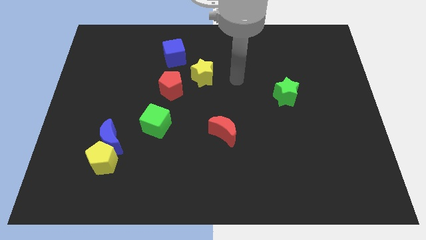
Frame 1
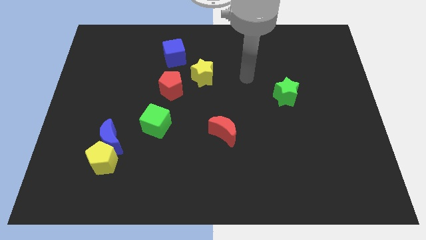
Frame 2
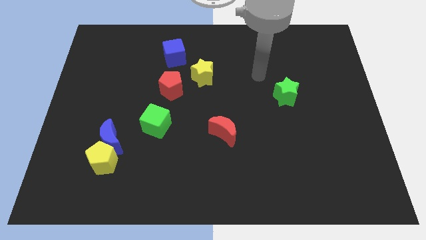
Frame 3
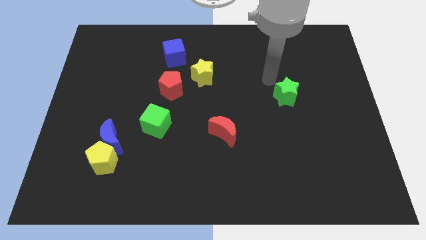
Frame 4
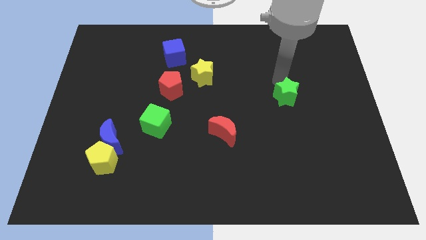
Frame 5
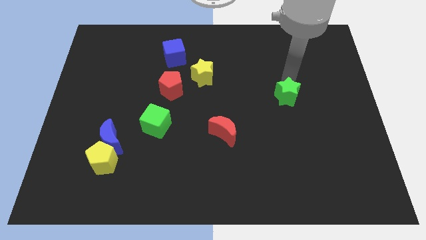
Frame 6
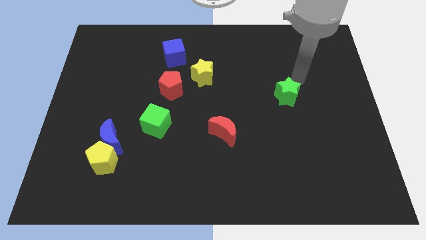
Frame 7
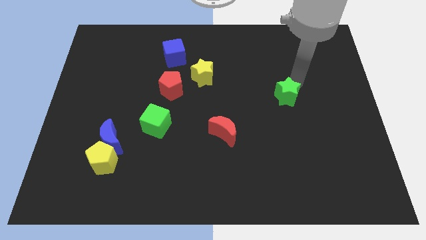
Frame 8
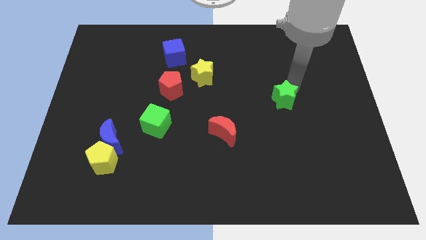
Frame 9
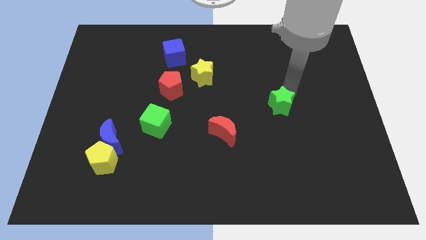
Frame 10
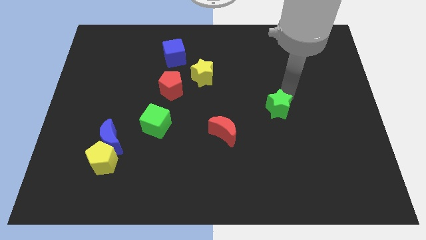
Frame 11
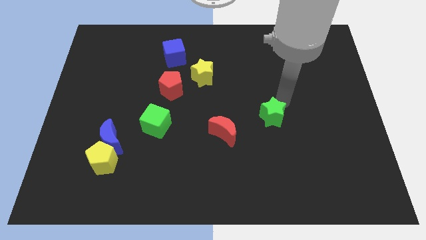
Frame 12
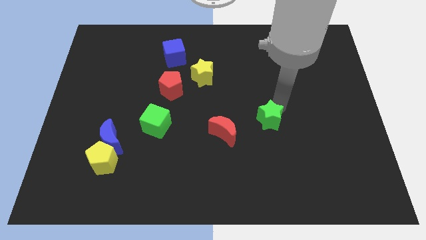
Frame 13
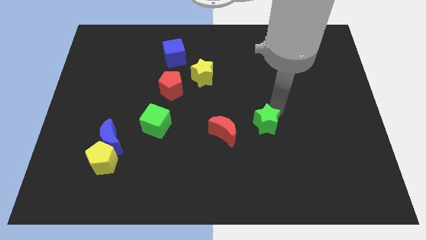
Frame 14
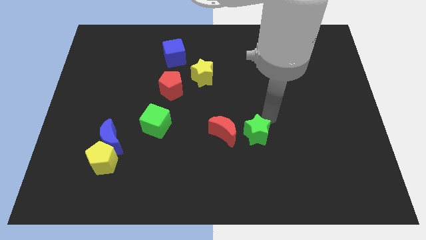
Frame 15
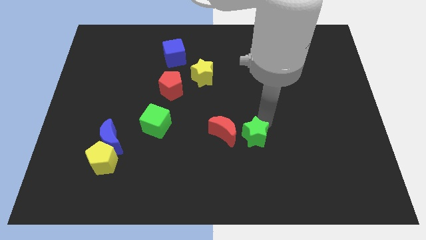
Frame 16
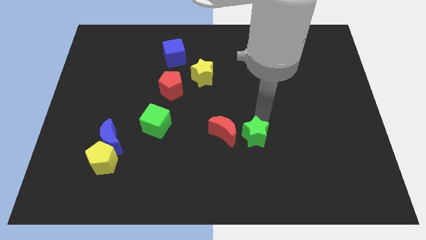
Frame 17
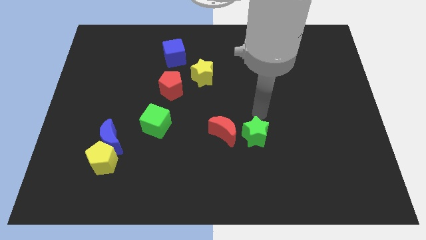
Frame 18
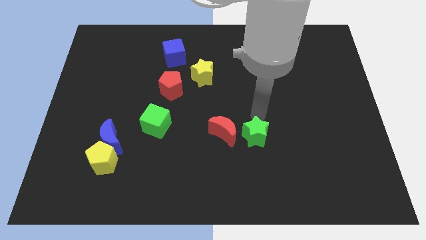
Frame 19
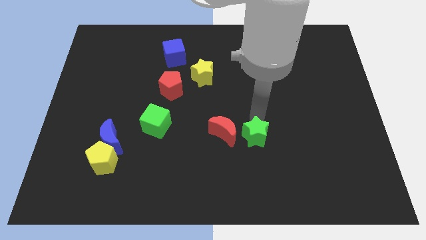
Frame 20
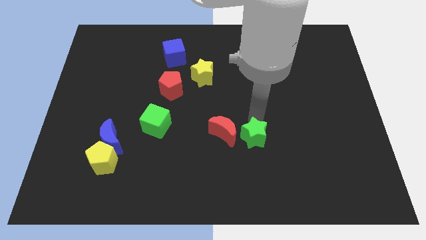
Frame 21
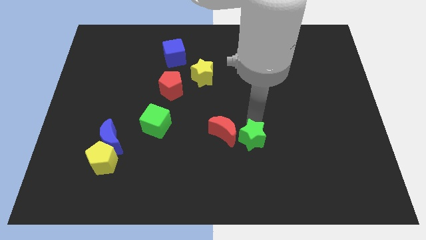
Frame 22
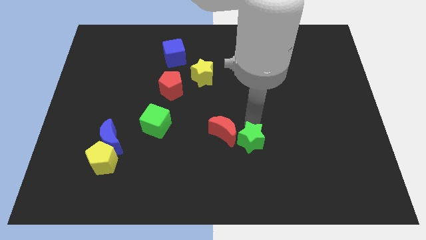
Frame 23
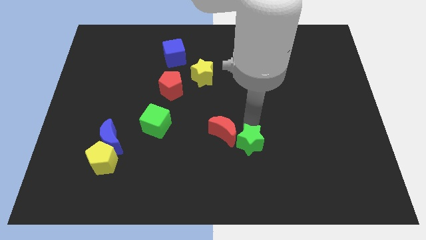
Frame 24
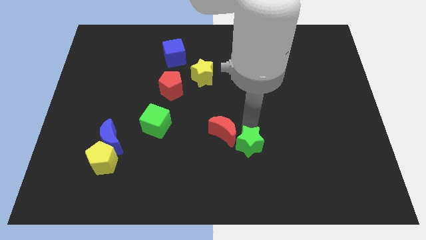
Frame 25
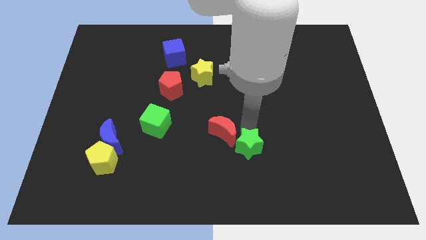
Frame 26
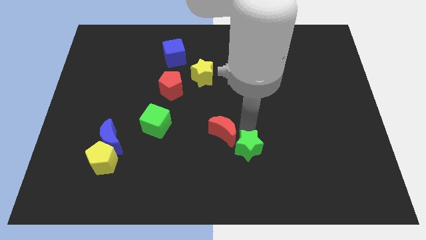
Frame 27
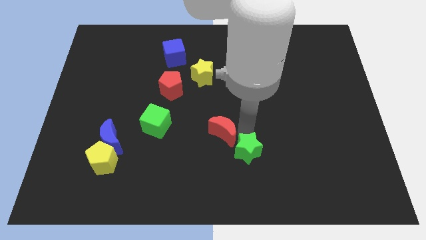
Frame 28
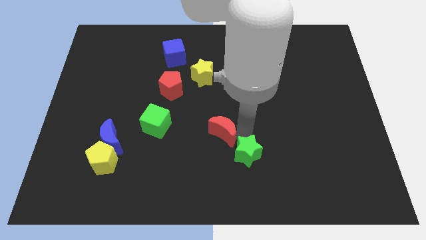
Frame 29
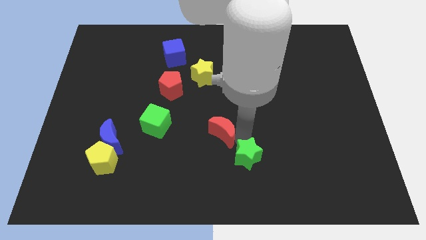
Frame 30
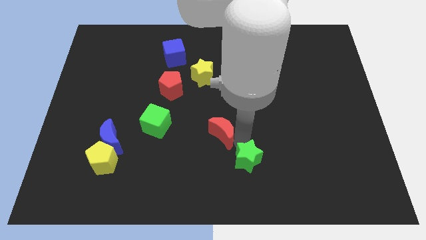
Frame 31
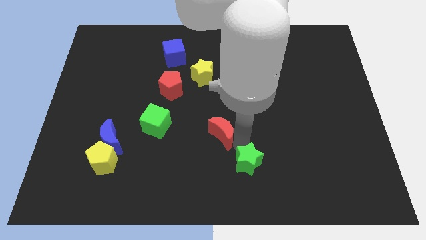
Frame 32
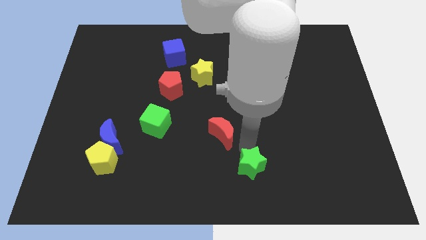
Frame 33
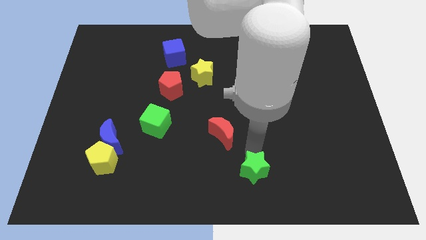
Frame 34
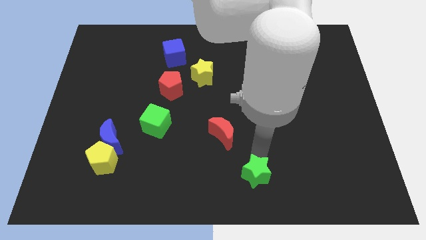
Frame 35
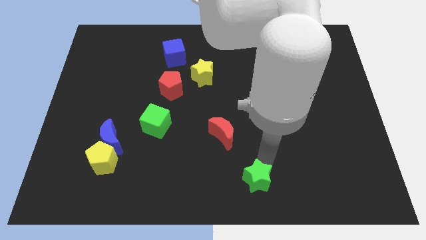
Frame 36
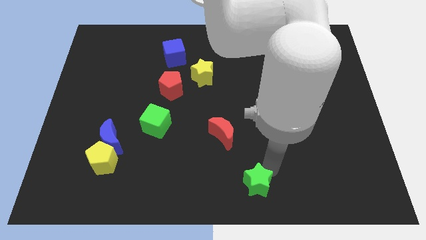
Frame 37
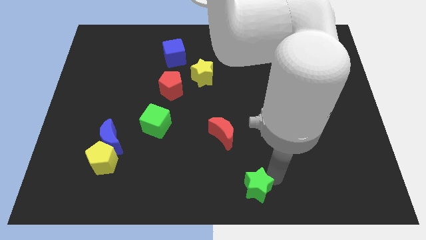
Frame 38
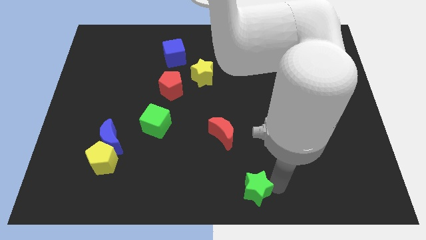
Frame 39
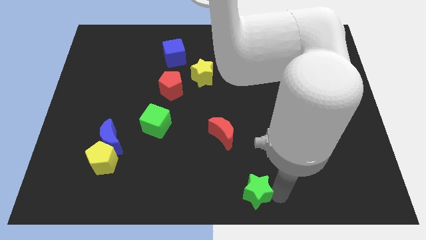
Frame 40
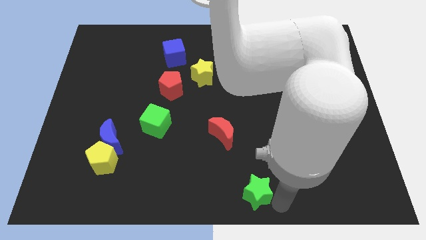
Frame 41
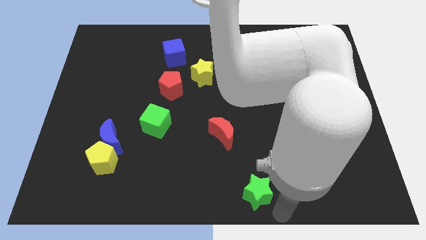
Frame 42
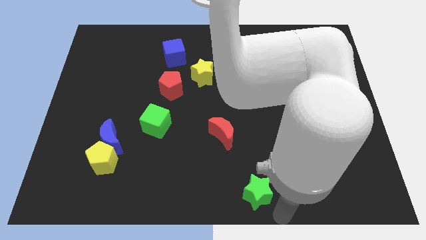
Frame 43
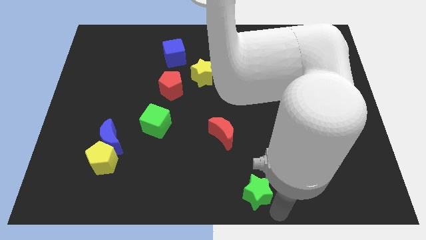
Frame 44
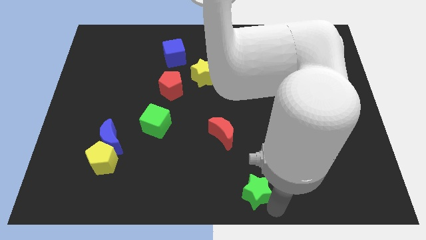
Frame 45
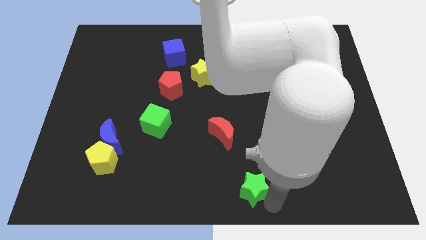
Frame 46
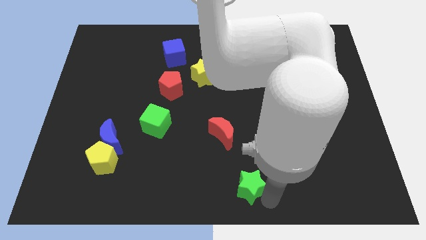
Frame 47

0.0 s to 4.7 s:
slide the green star diagonally down and left

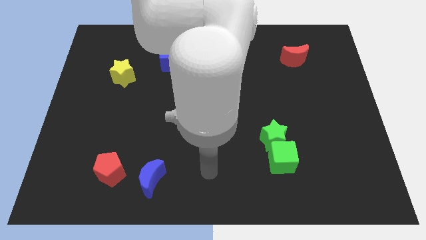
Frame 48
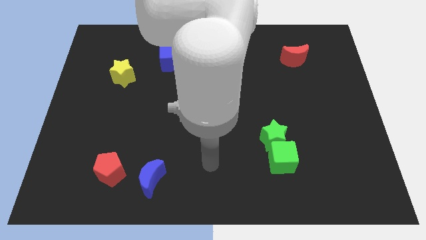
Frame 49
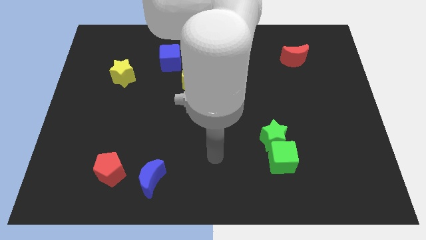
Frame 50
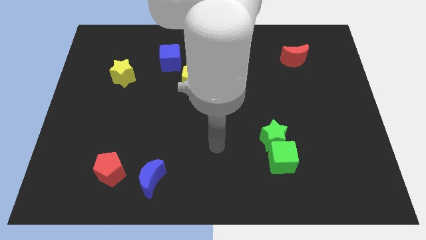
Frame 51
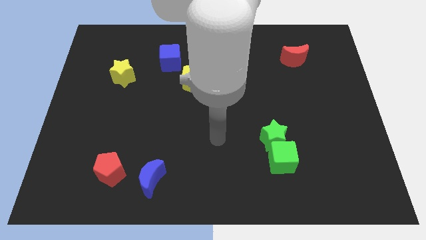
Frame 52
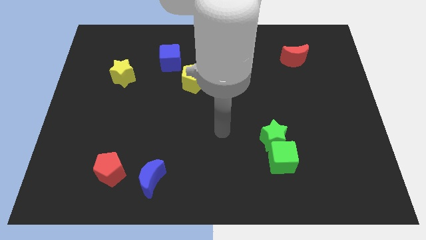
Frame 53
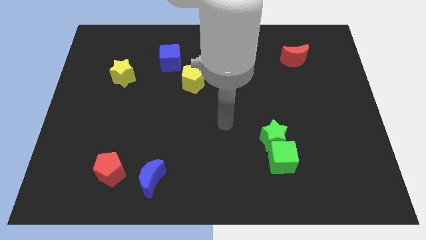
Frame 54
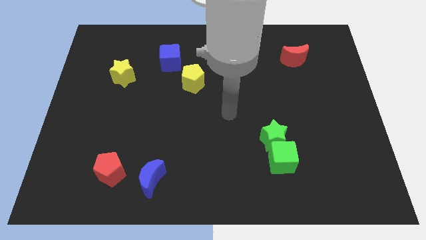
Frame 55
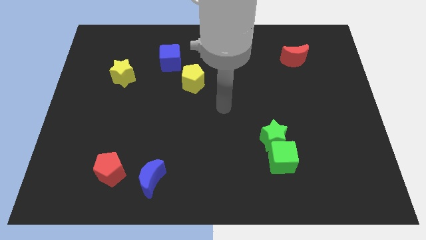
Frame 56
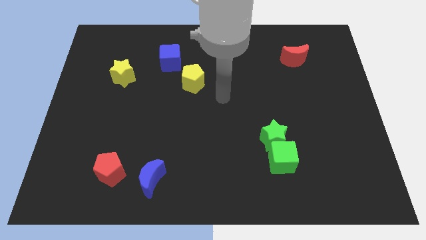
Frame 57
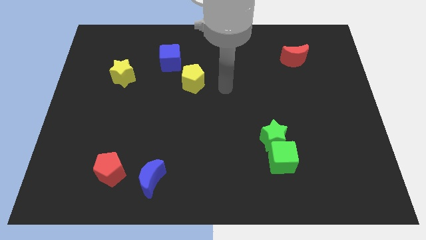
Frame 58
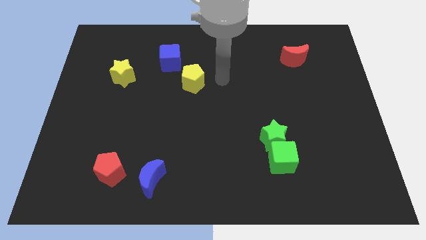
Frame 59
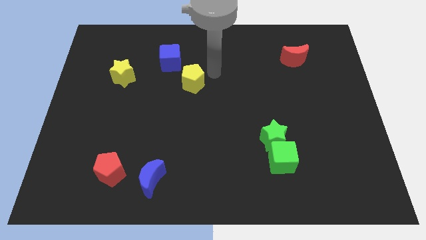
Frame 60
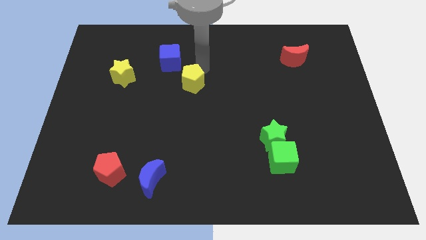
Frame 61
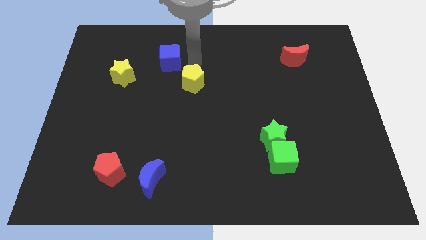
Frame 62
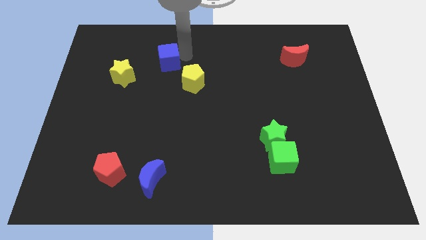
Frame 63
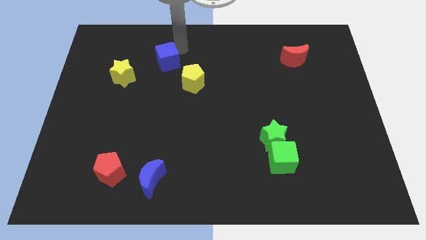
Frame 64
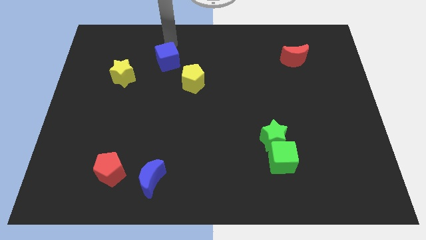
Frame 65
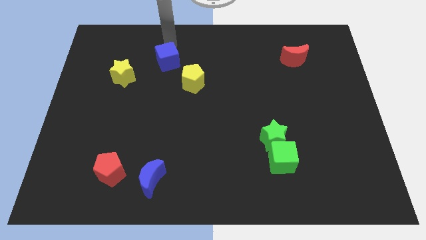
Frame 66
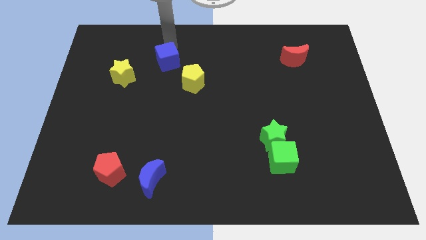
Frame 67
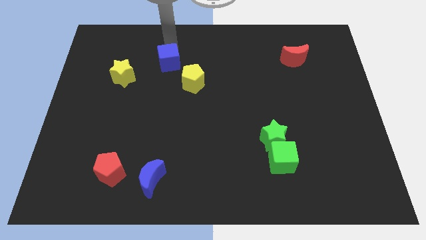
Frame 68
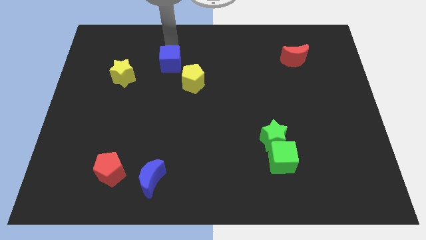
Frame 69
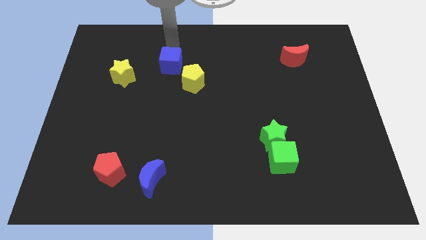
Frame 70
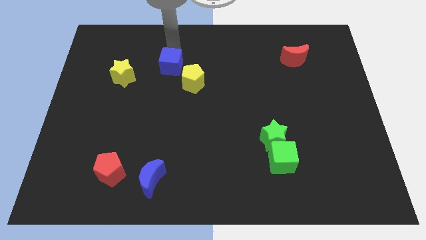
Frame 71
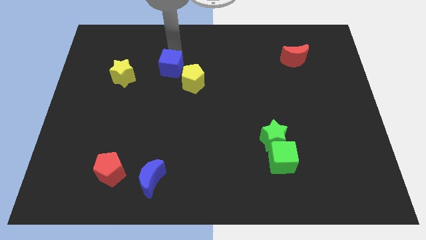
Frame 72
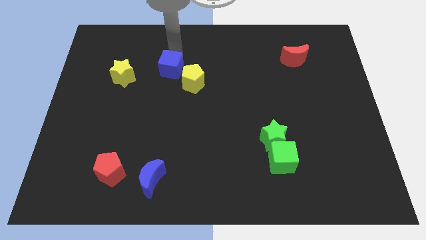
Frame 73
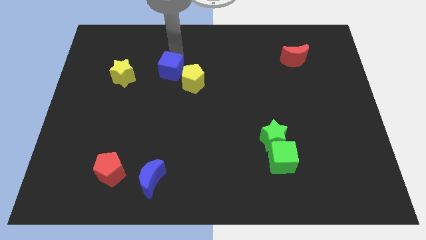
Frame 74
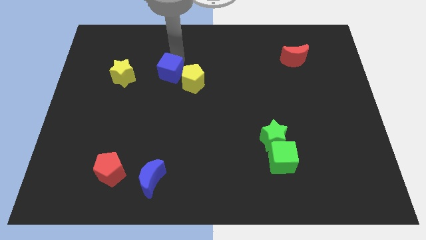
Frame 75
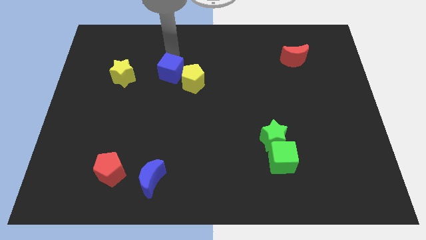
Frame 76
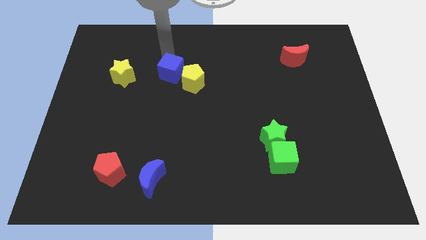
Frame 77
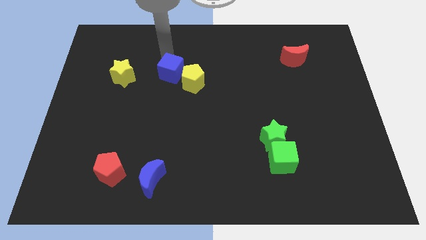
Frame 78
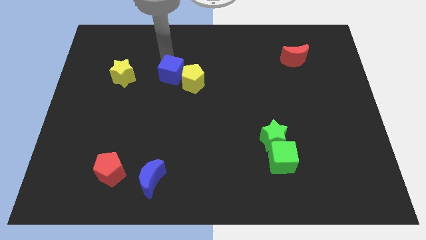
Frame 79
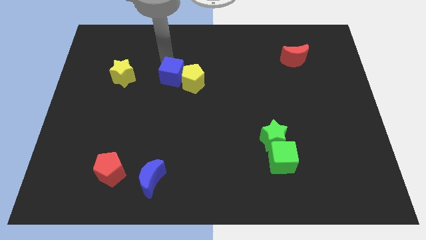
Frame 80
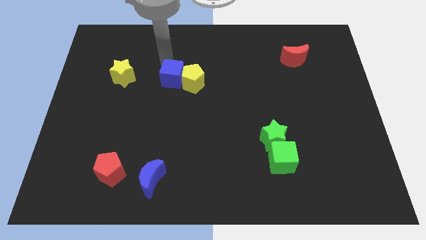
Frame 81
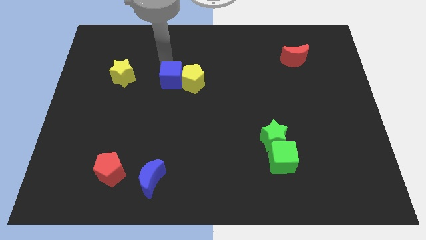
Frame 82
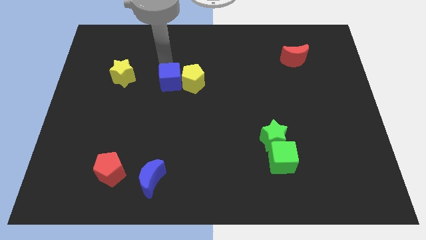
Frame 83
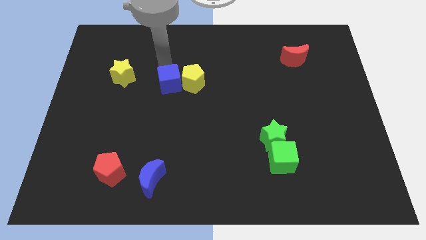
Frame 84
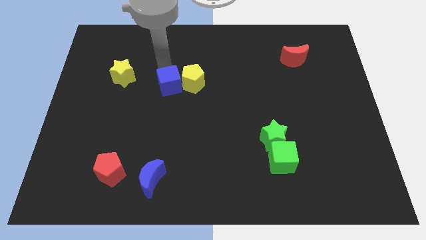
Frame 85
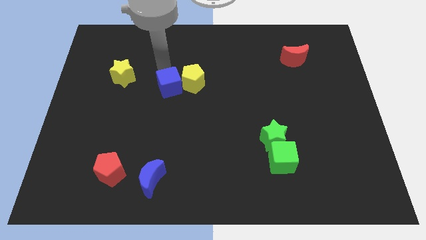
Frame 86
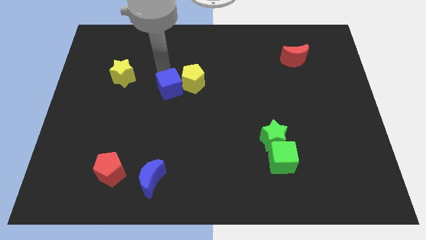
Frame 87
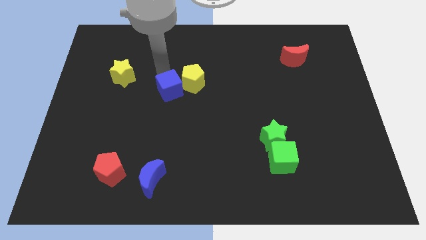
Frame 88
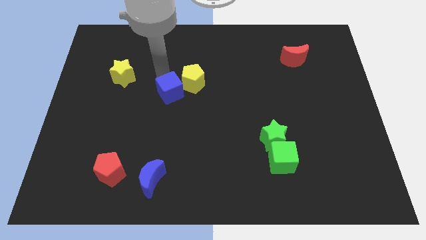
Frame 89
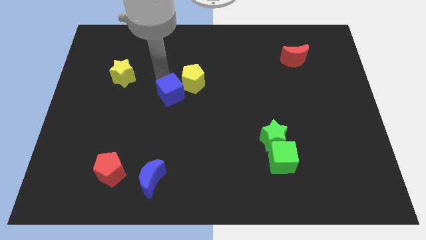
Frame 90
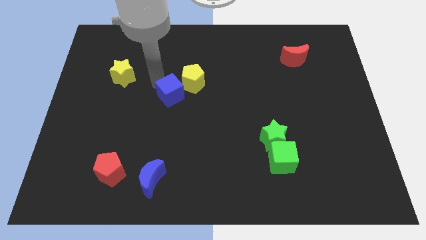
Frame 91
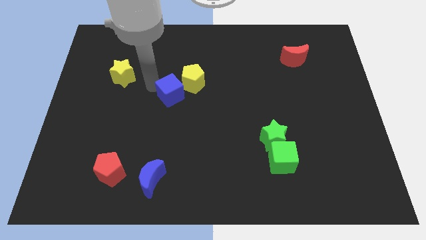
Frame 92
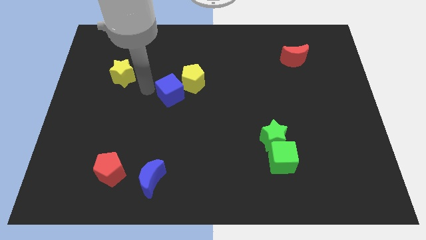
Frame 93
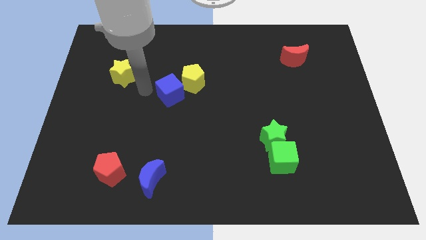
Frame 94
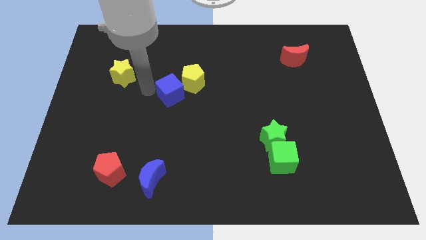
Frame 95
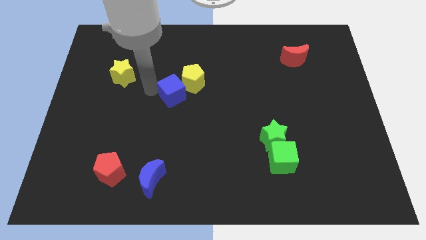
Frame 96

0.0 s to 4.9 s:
move the blue cube diagonally down and right somewhat
